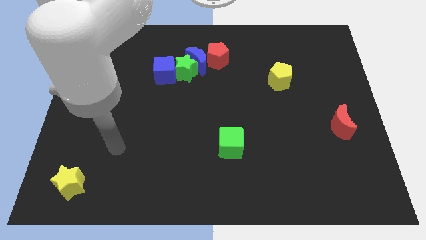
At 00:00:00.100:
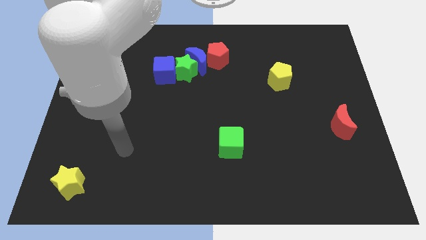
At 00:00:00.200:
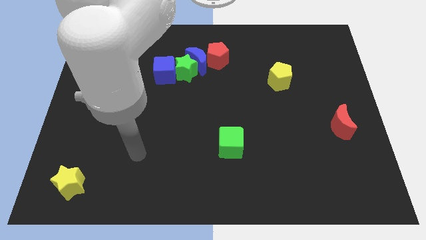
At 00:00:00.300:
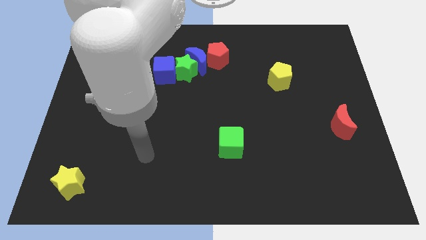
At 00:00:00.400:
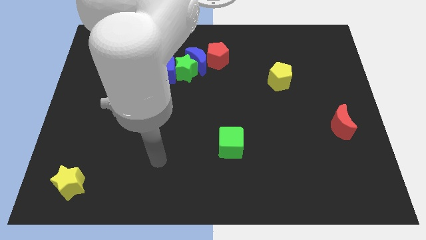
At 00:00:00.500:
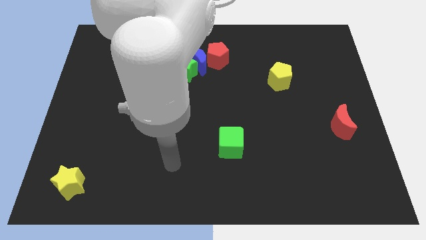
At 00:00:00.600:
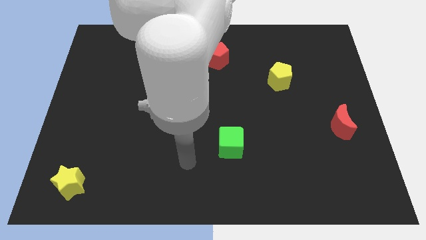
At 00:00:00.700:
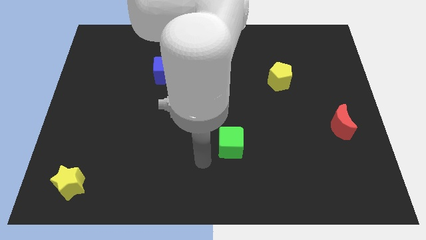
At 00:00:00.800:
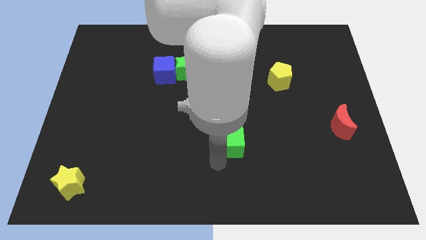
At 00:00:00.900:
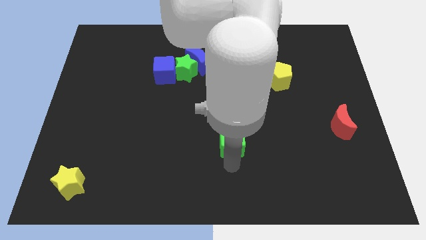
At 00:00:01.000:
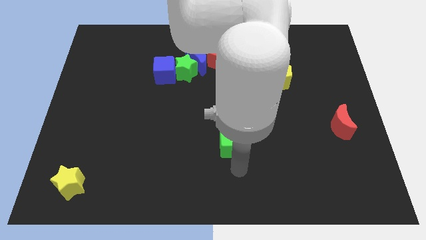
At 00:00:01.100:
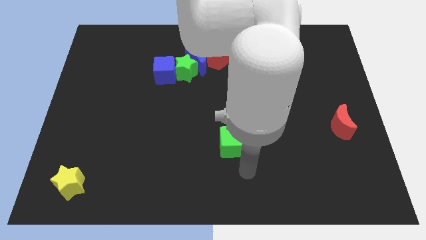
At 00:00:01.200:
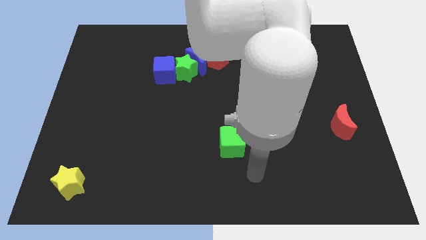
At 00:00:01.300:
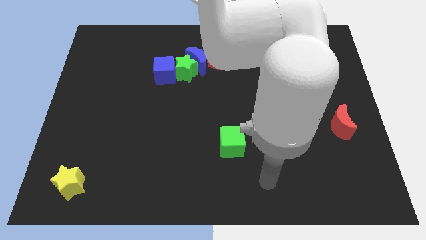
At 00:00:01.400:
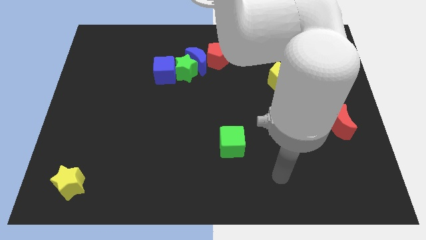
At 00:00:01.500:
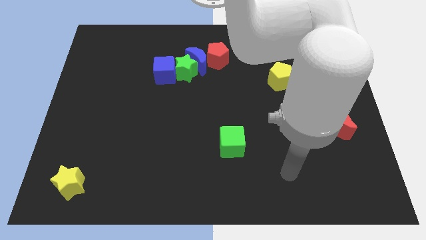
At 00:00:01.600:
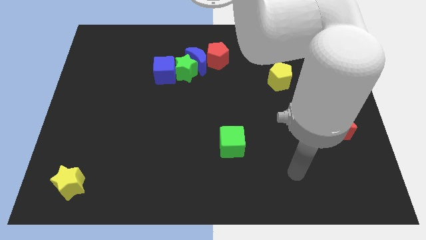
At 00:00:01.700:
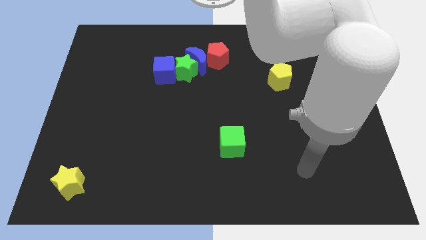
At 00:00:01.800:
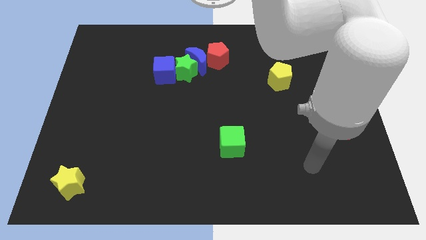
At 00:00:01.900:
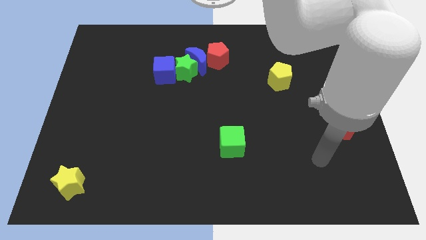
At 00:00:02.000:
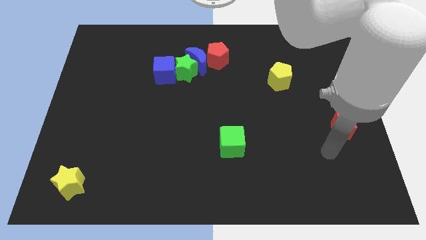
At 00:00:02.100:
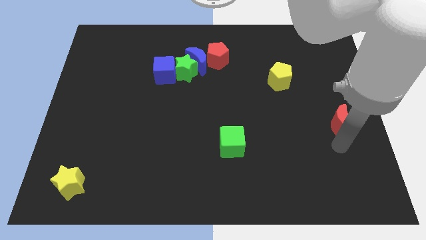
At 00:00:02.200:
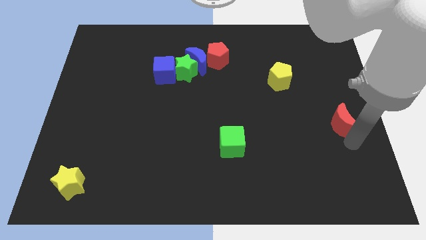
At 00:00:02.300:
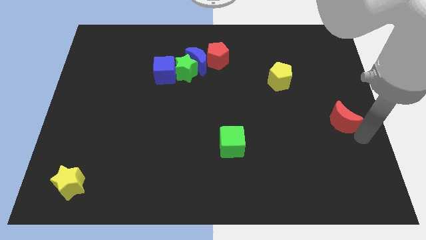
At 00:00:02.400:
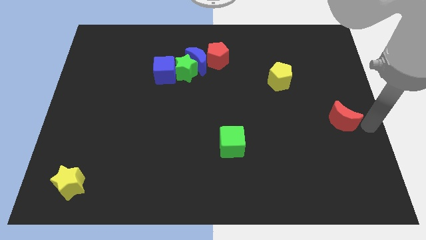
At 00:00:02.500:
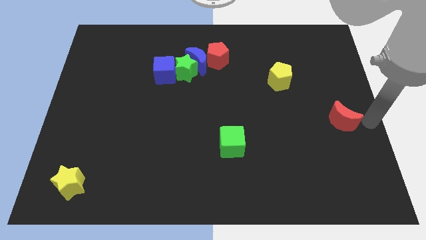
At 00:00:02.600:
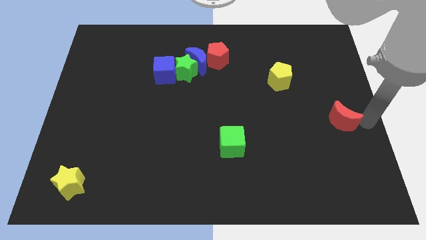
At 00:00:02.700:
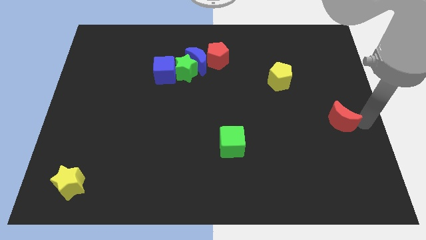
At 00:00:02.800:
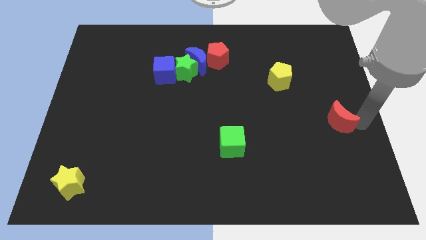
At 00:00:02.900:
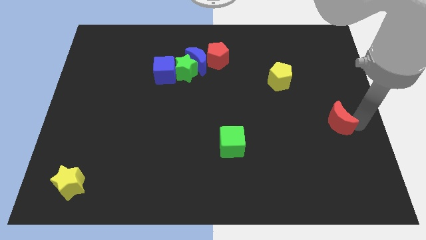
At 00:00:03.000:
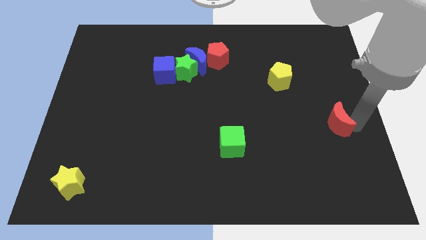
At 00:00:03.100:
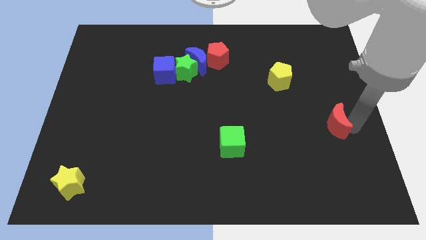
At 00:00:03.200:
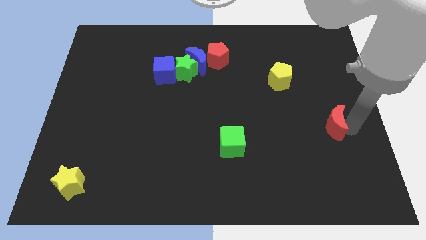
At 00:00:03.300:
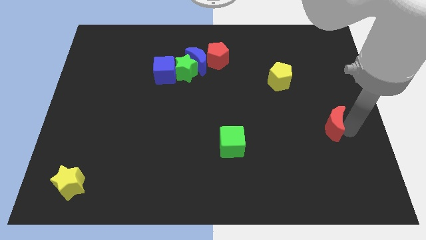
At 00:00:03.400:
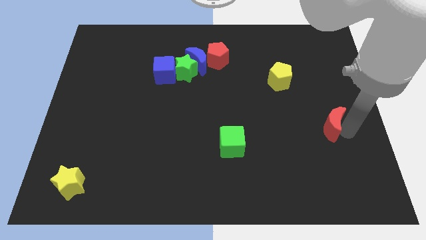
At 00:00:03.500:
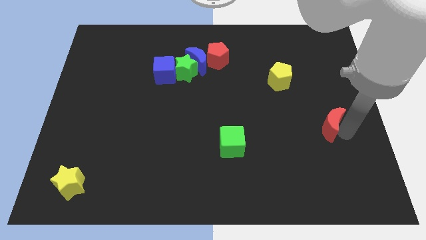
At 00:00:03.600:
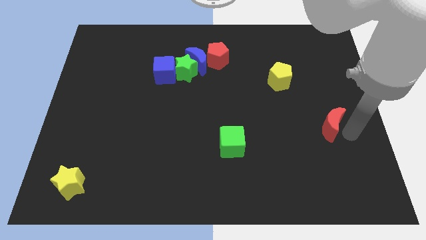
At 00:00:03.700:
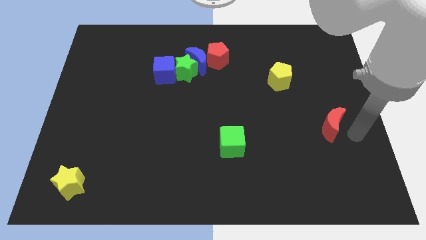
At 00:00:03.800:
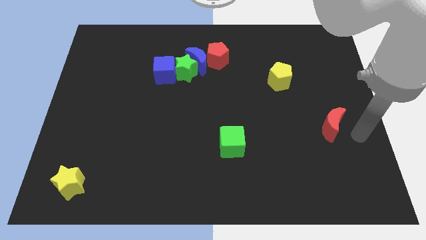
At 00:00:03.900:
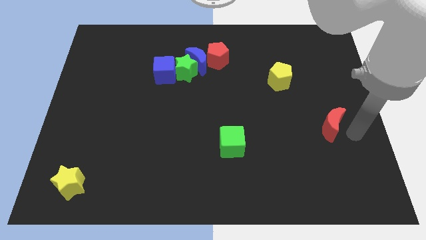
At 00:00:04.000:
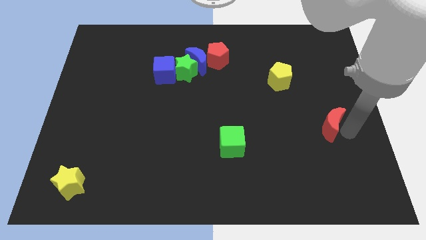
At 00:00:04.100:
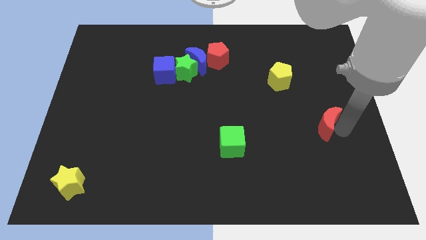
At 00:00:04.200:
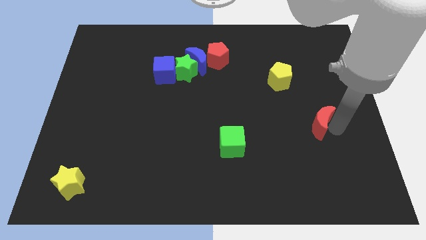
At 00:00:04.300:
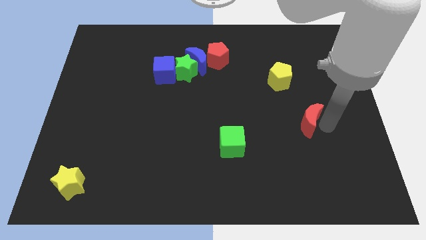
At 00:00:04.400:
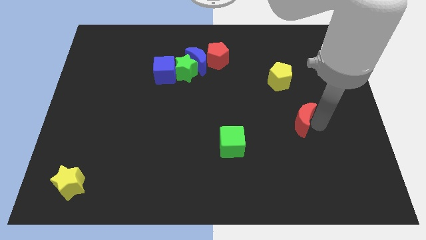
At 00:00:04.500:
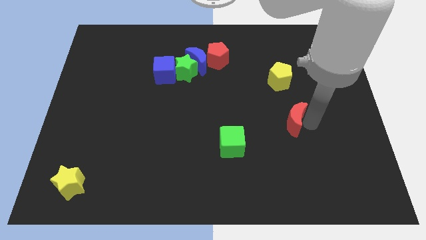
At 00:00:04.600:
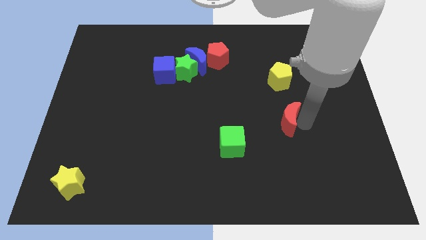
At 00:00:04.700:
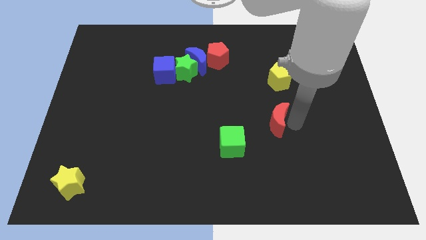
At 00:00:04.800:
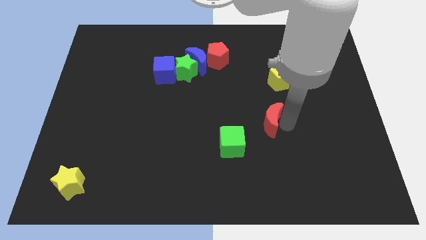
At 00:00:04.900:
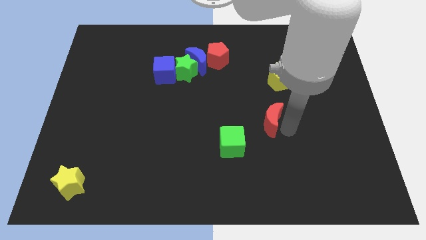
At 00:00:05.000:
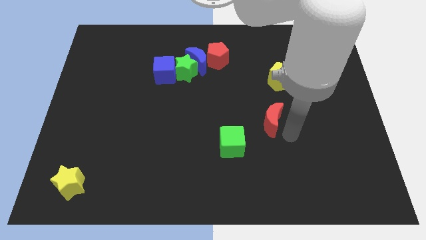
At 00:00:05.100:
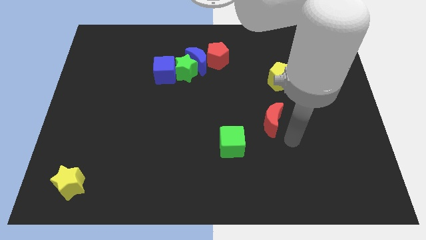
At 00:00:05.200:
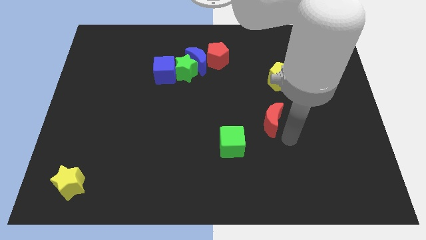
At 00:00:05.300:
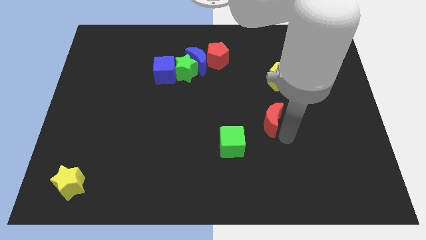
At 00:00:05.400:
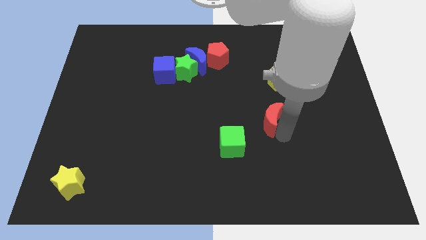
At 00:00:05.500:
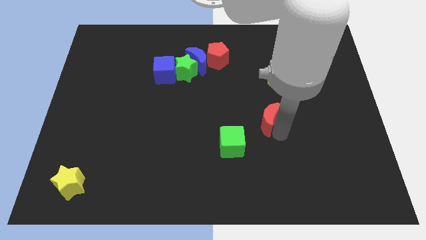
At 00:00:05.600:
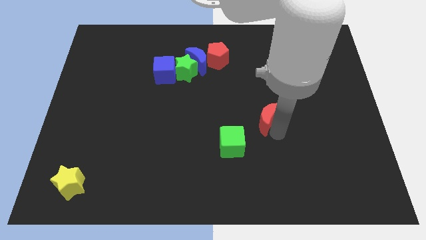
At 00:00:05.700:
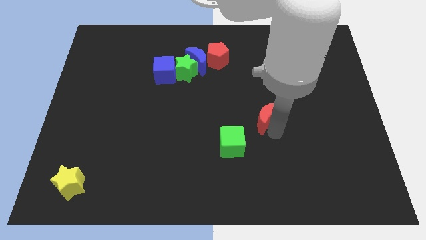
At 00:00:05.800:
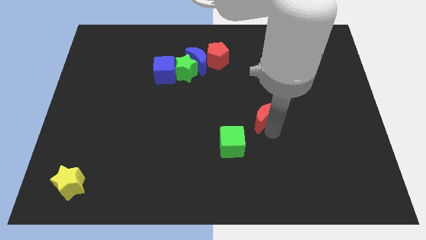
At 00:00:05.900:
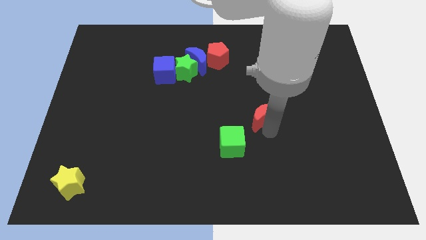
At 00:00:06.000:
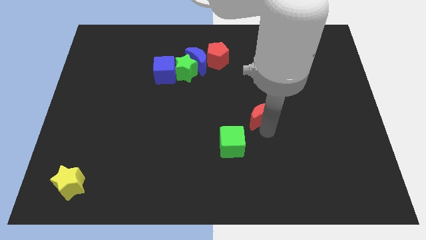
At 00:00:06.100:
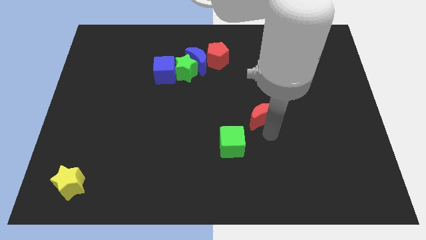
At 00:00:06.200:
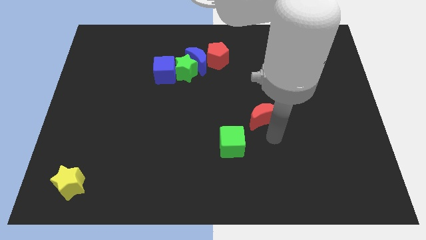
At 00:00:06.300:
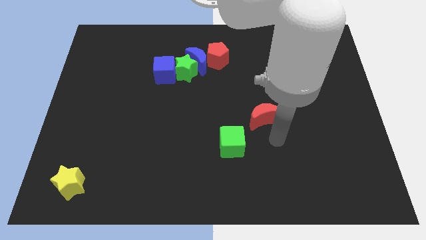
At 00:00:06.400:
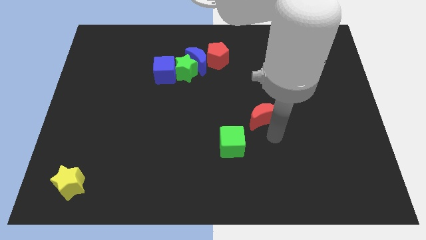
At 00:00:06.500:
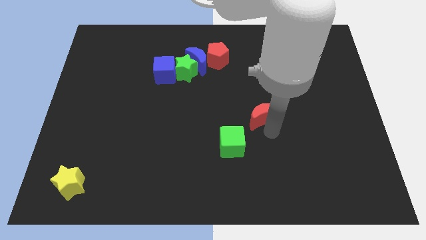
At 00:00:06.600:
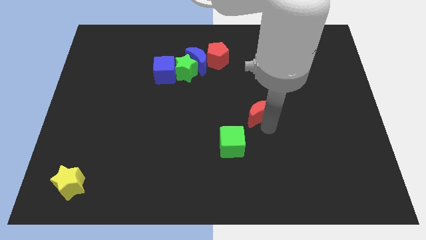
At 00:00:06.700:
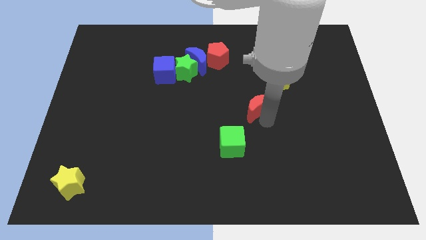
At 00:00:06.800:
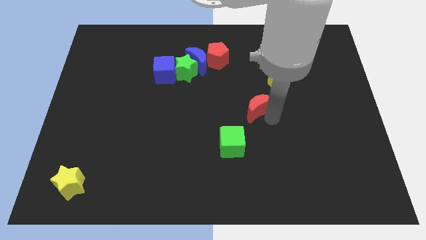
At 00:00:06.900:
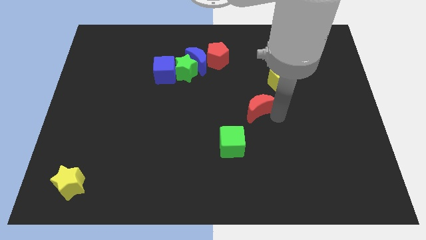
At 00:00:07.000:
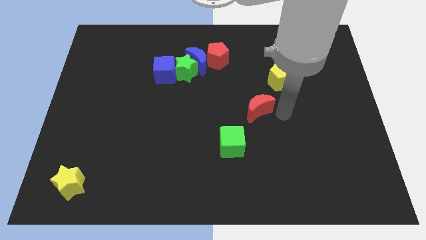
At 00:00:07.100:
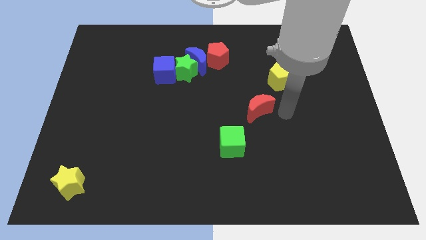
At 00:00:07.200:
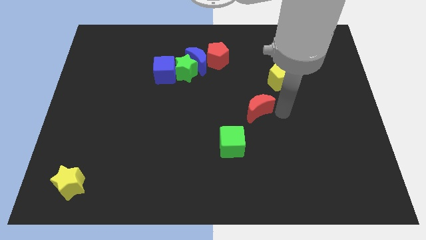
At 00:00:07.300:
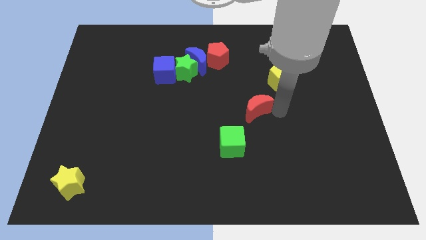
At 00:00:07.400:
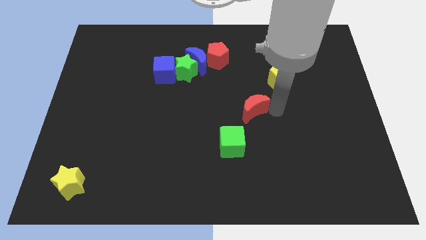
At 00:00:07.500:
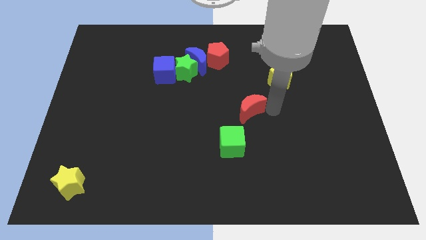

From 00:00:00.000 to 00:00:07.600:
slide the red moon above the green cube
